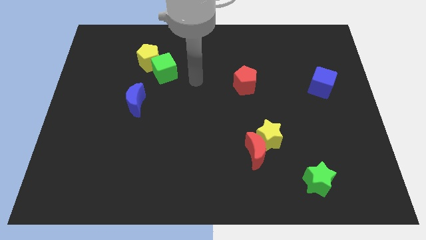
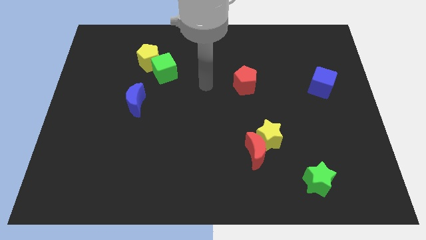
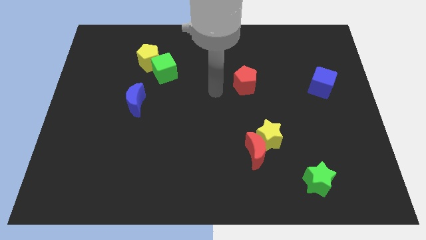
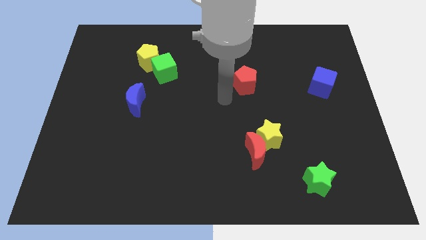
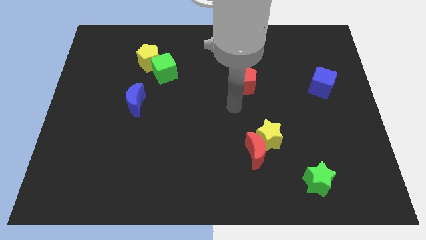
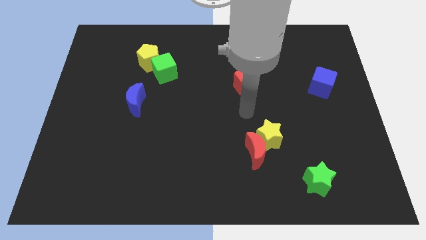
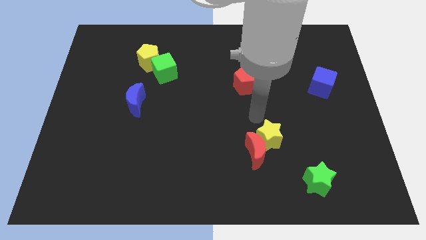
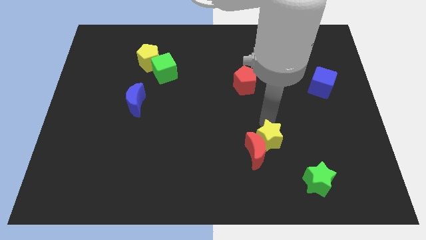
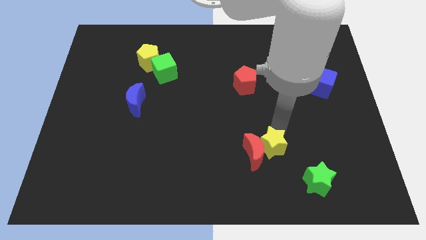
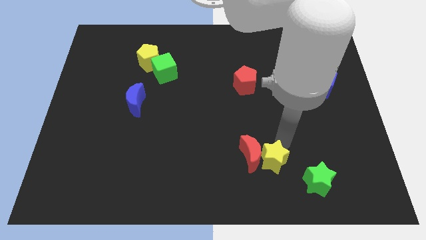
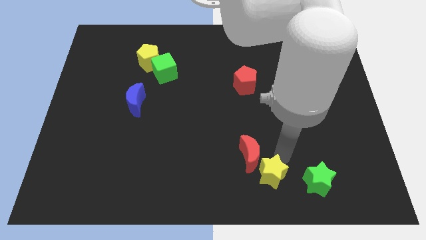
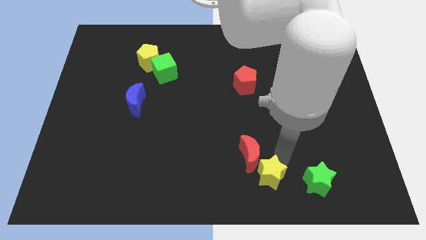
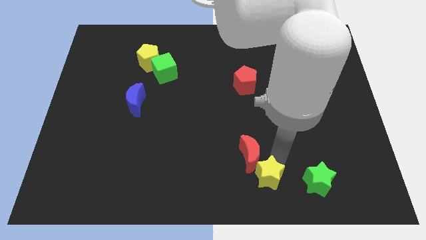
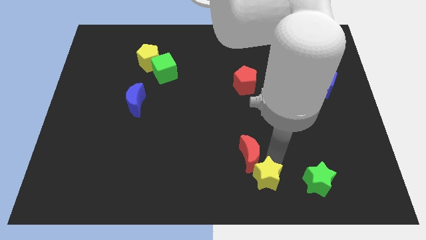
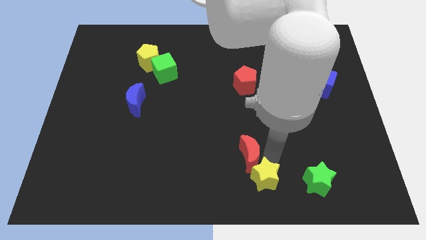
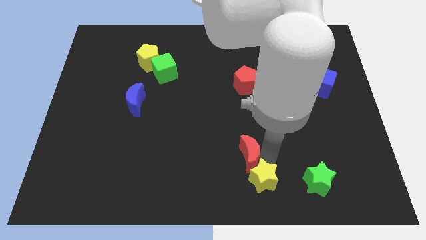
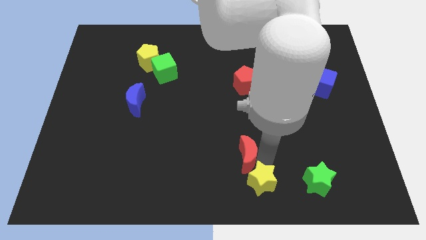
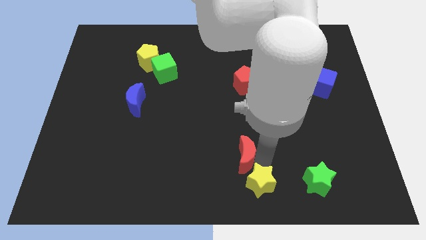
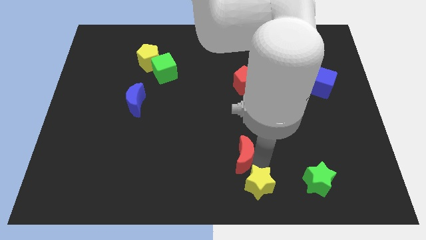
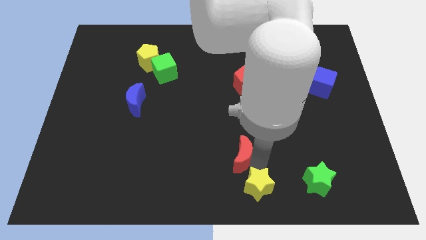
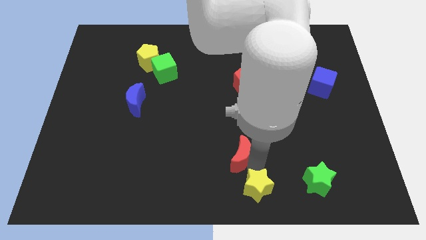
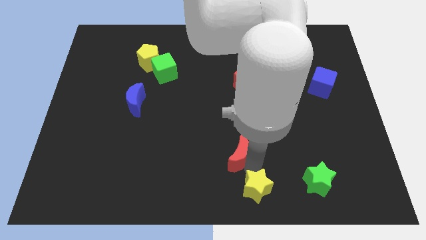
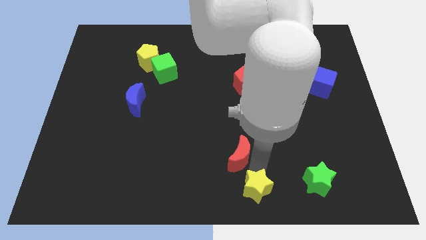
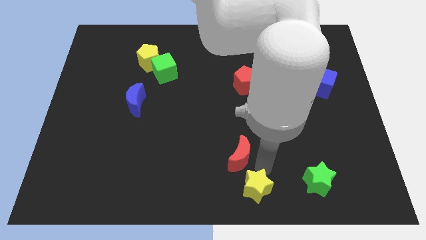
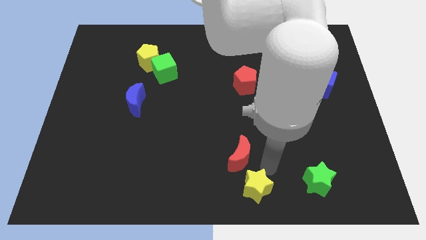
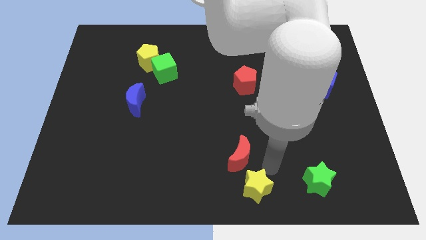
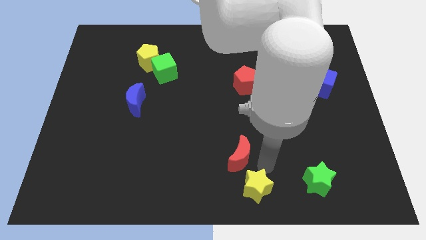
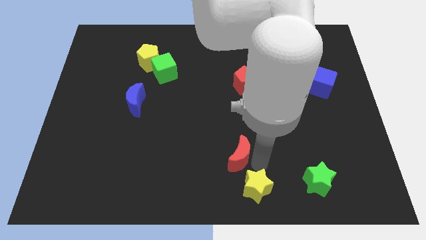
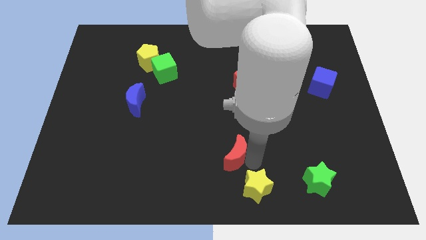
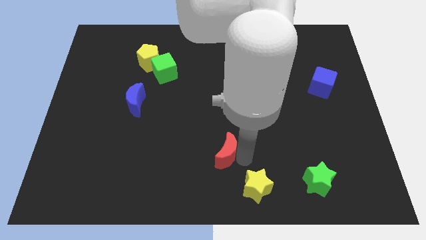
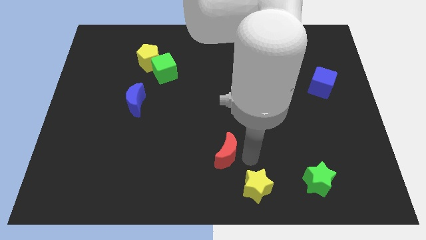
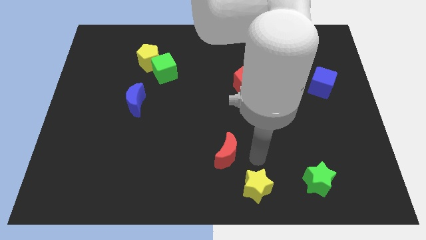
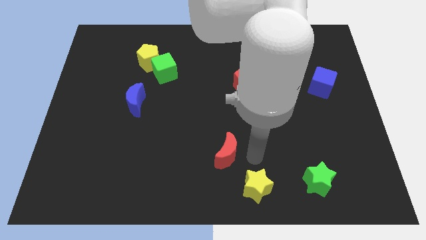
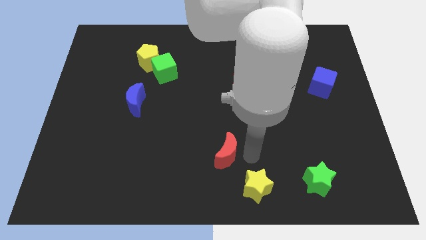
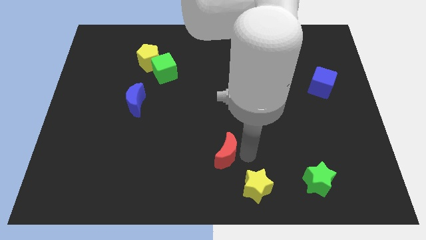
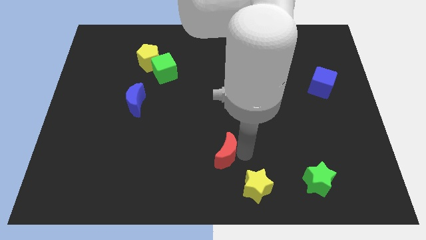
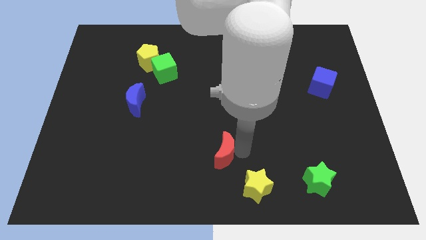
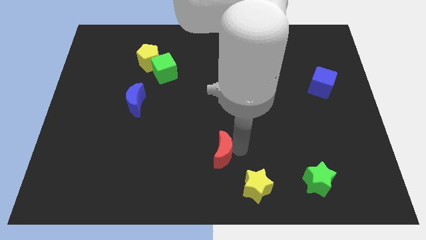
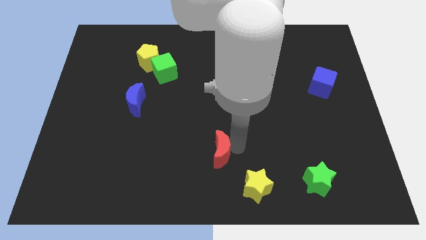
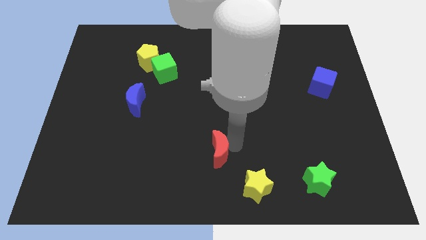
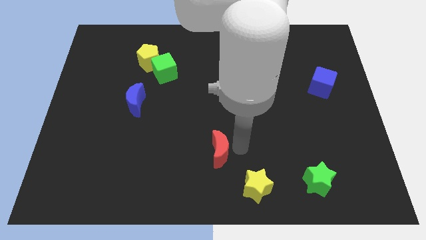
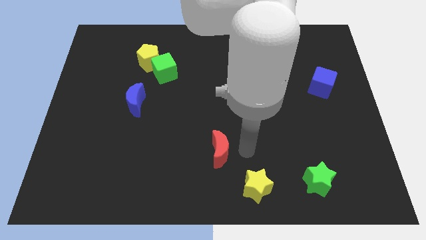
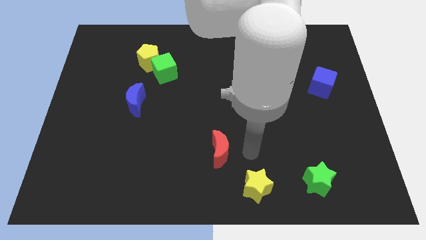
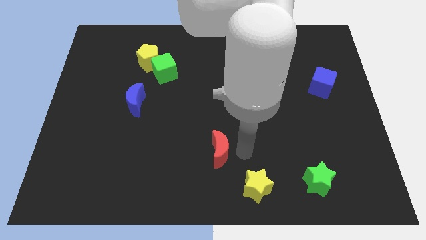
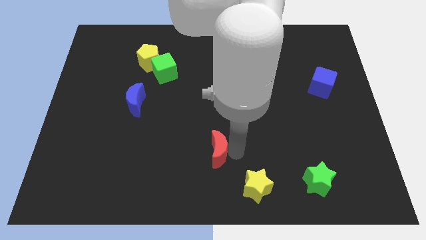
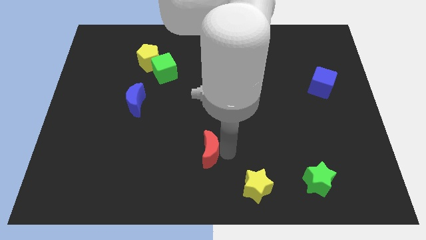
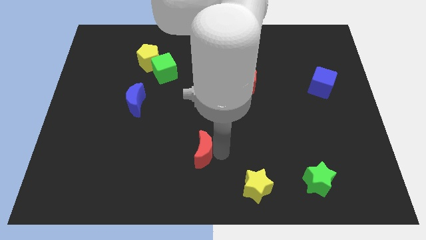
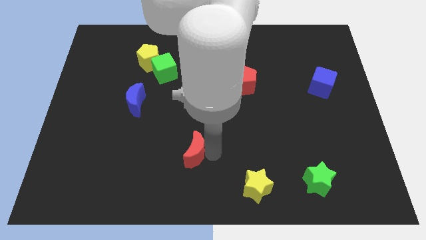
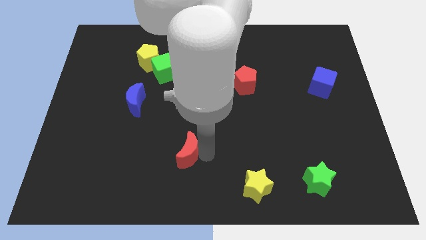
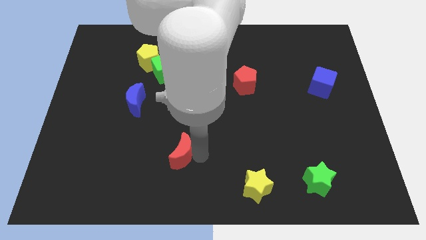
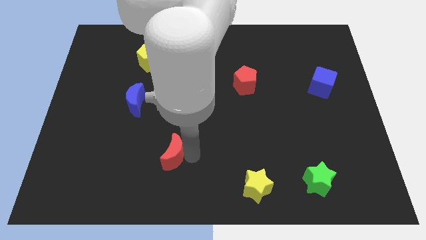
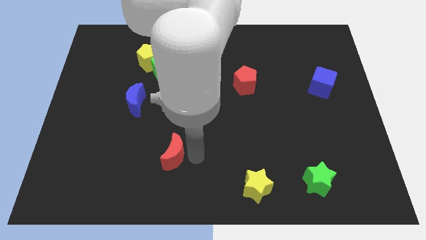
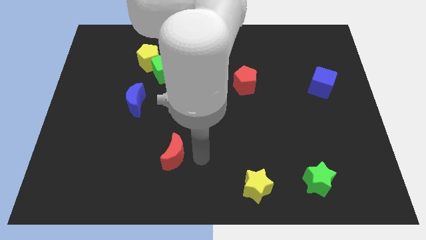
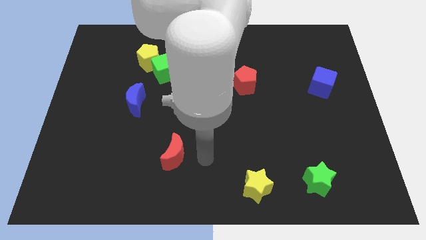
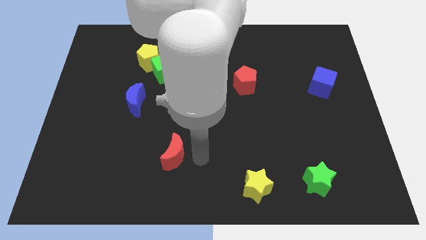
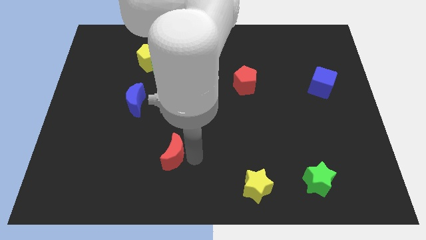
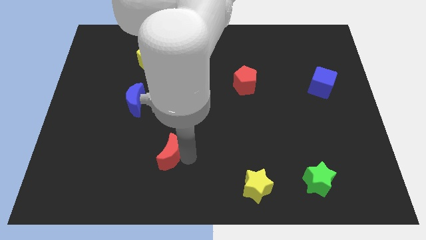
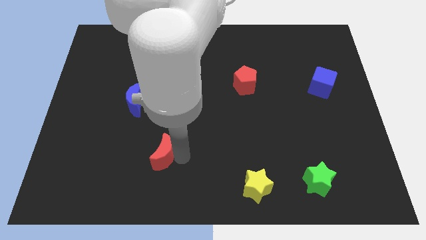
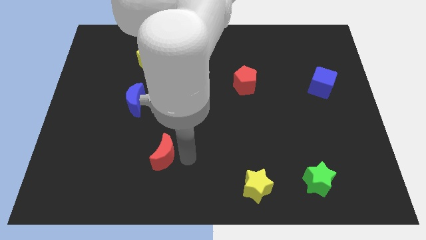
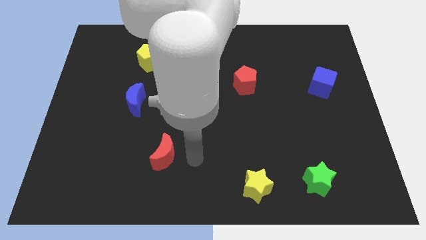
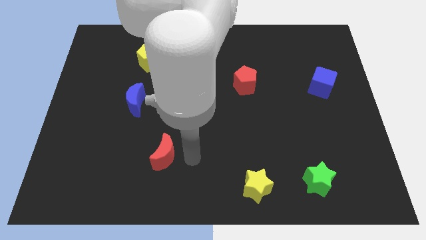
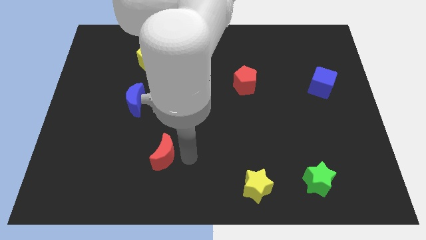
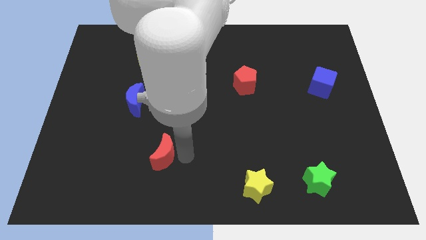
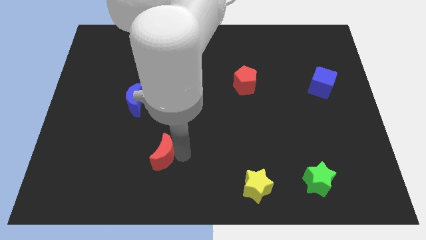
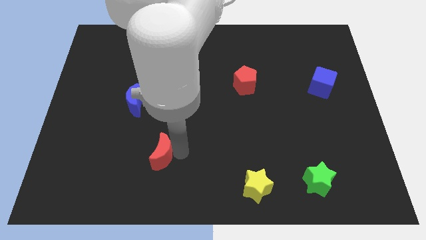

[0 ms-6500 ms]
slide the red moon left

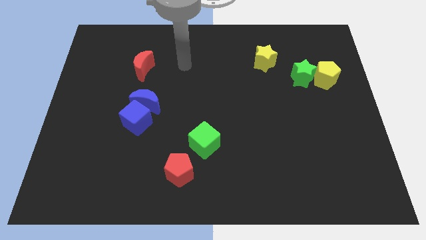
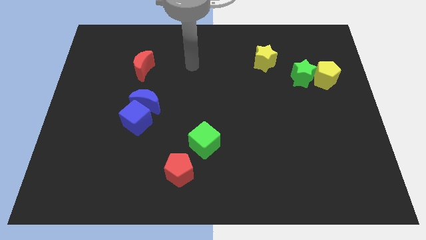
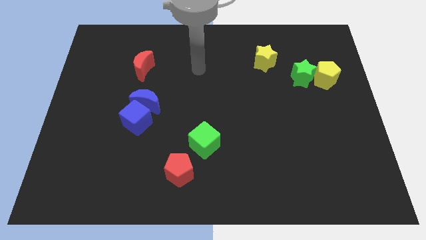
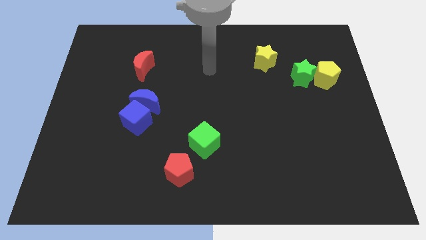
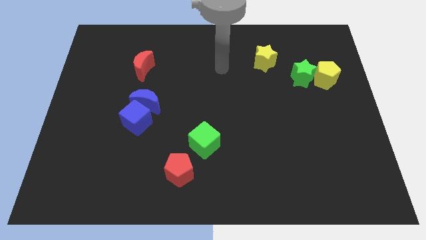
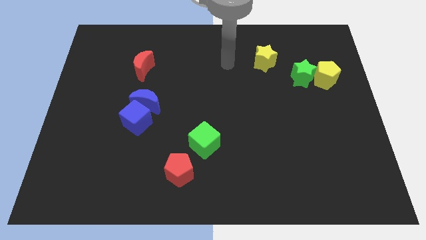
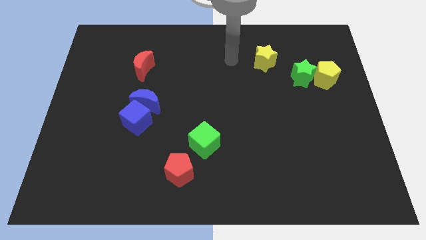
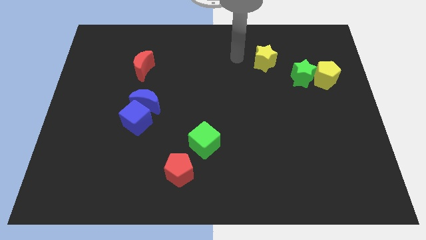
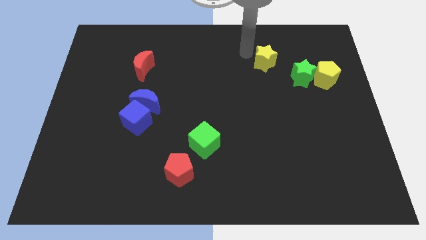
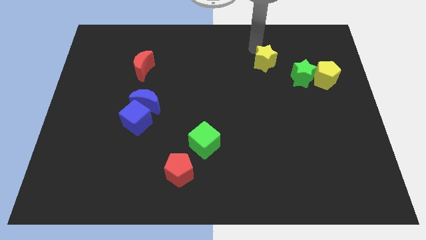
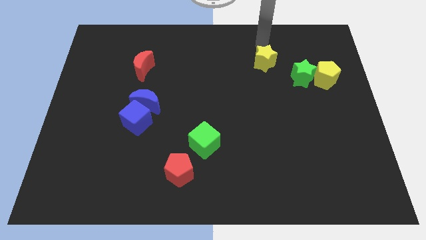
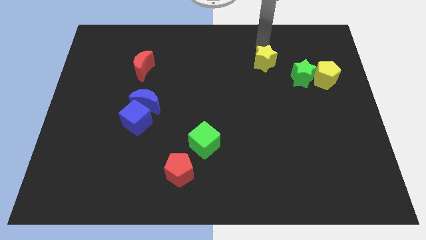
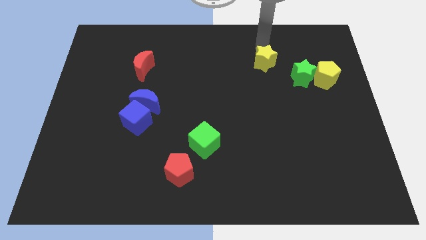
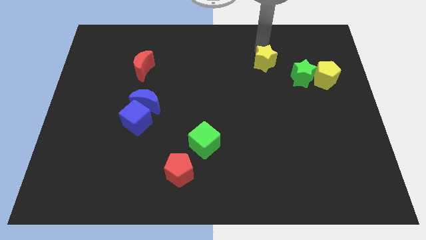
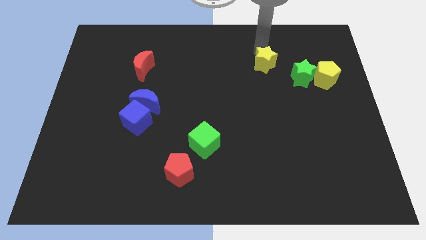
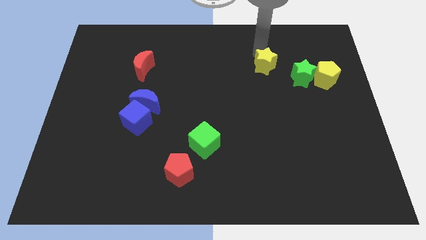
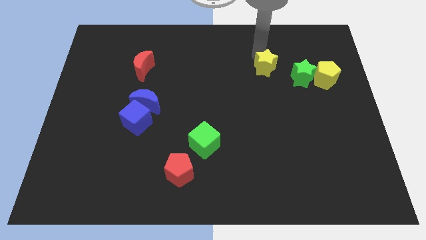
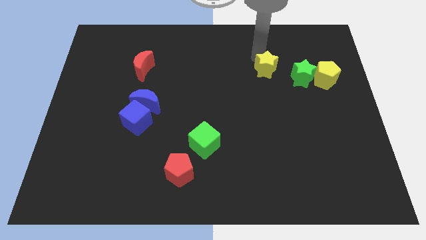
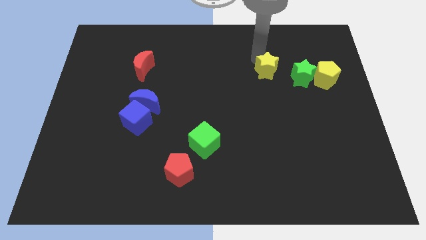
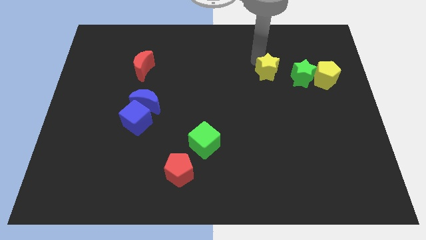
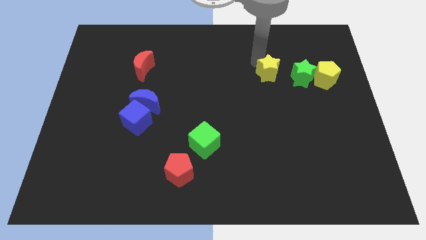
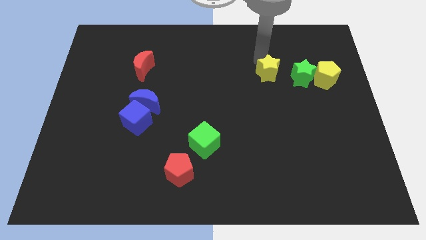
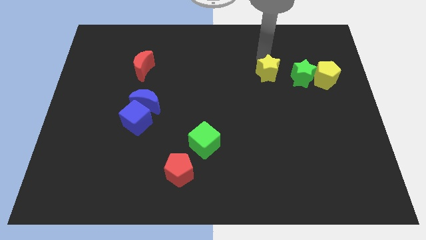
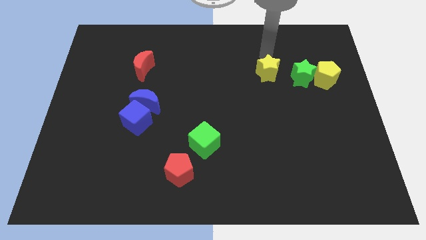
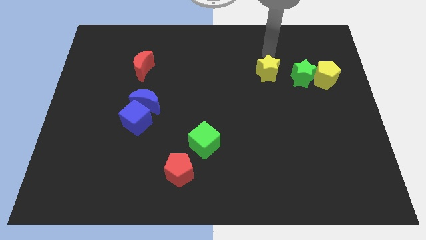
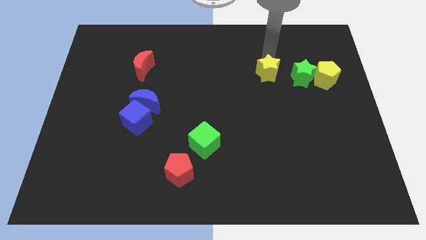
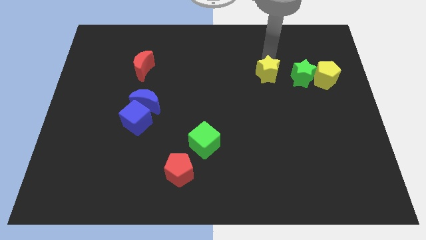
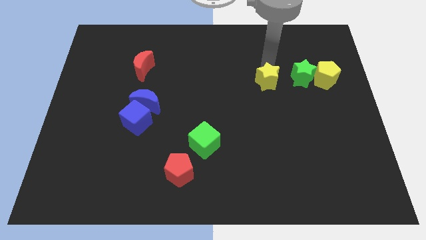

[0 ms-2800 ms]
slide the yellow star down a little
